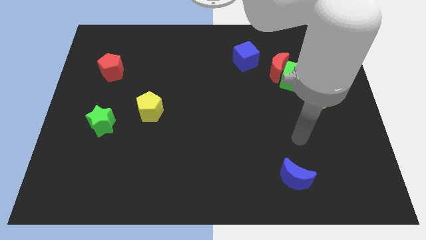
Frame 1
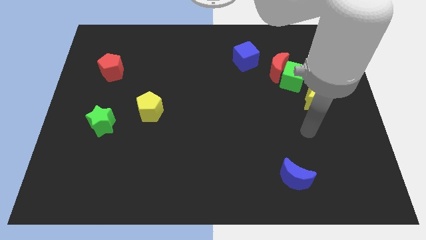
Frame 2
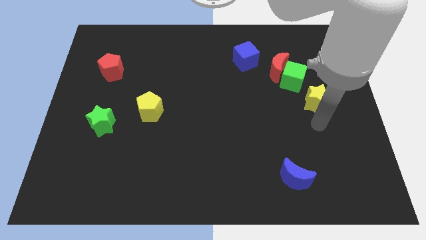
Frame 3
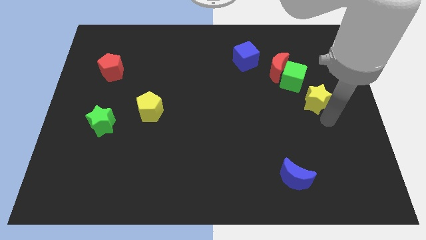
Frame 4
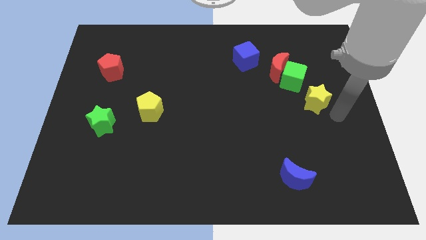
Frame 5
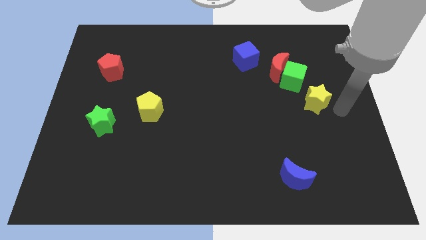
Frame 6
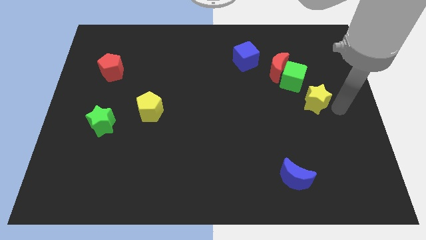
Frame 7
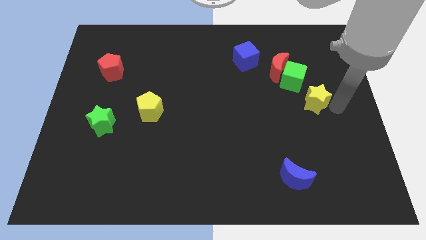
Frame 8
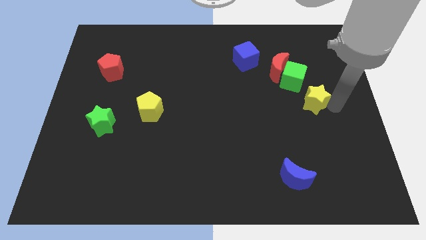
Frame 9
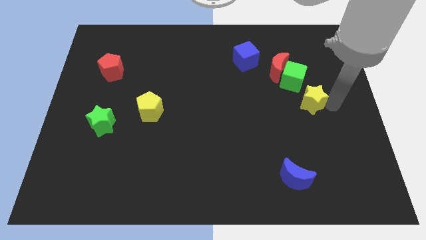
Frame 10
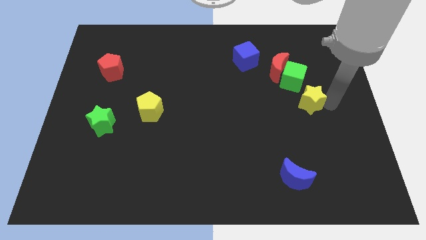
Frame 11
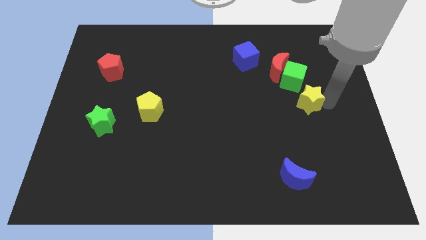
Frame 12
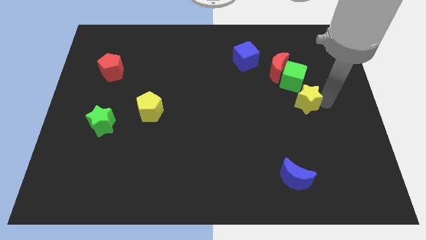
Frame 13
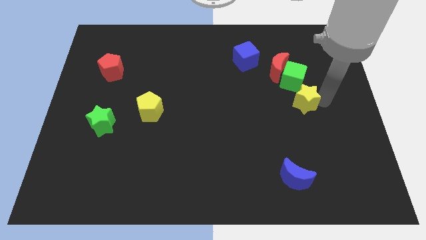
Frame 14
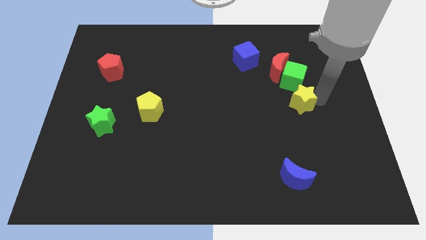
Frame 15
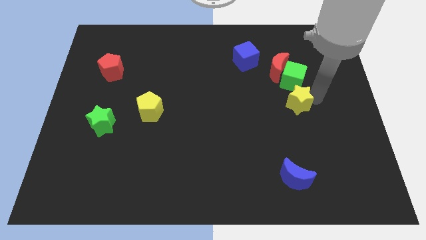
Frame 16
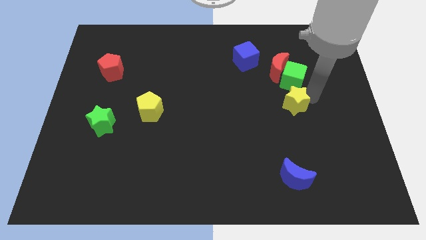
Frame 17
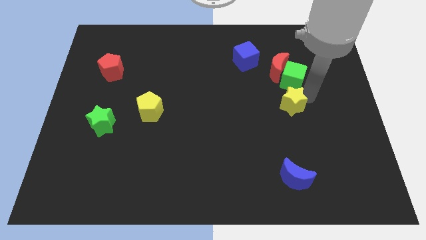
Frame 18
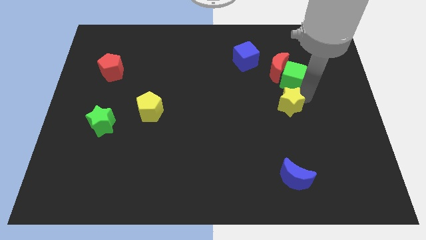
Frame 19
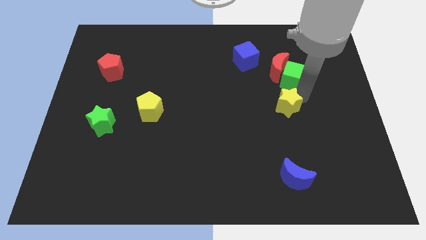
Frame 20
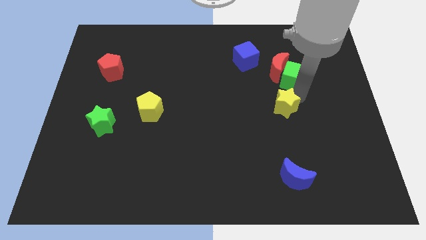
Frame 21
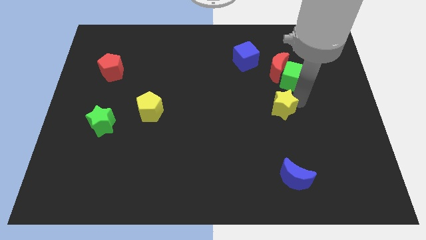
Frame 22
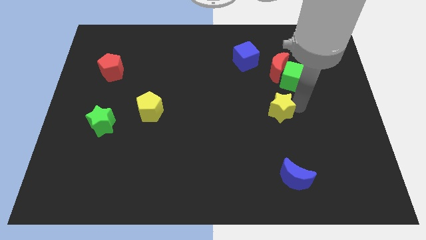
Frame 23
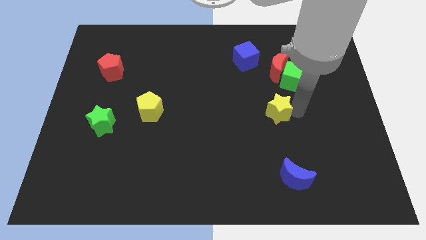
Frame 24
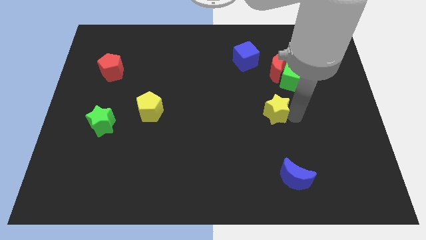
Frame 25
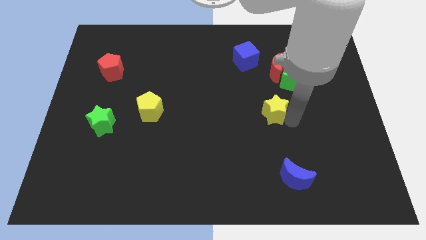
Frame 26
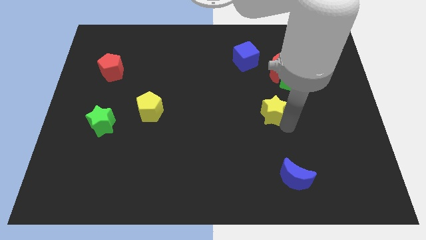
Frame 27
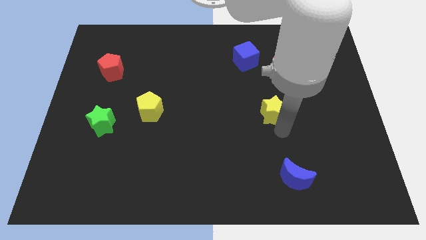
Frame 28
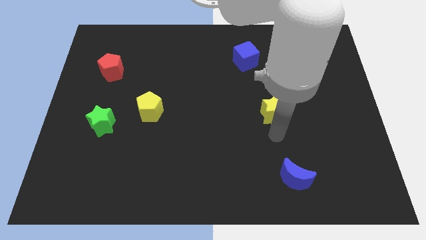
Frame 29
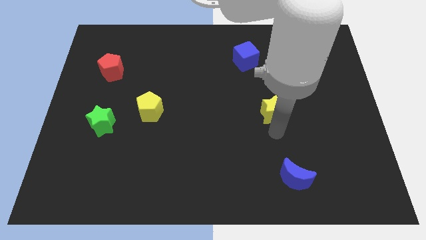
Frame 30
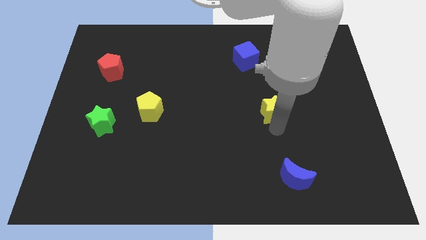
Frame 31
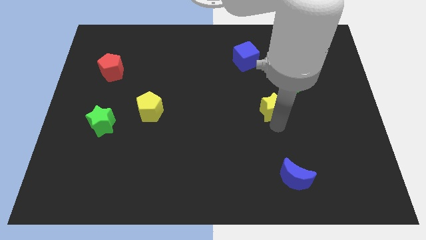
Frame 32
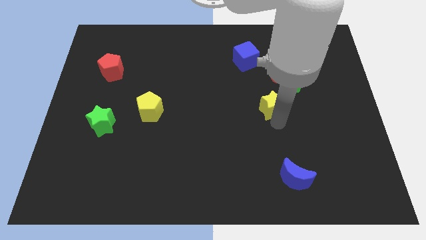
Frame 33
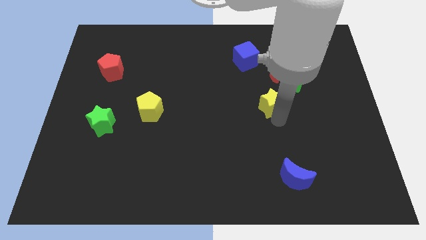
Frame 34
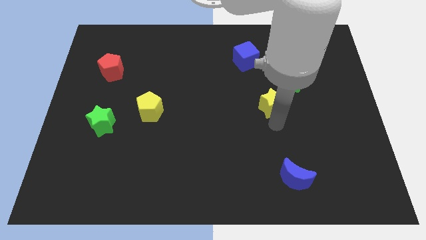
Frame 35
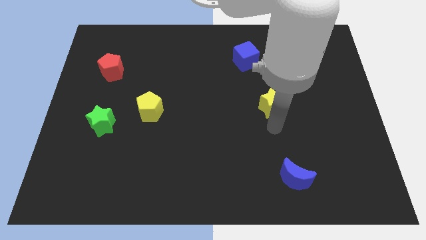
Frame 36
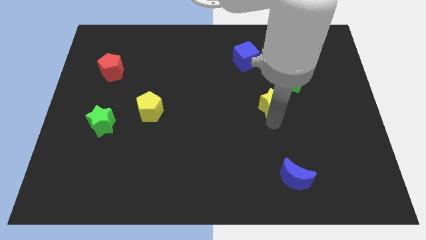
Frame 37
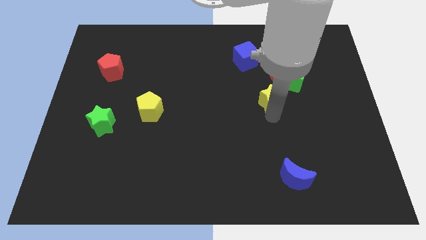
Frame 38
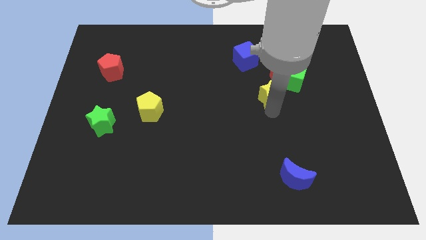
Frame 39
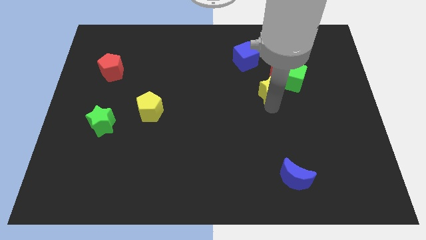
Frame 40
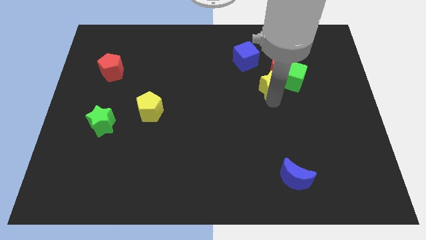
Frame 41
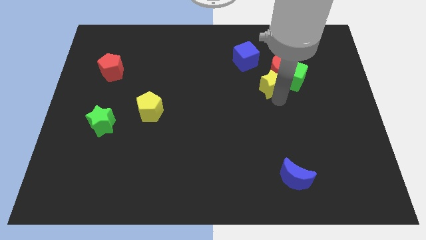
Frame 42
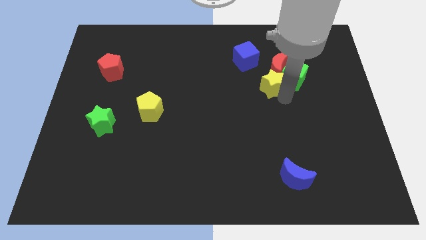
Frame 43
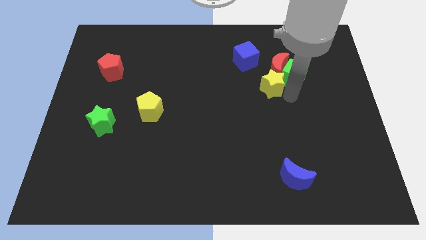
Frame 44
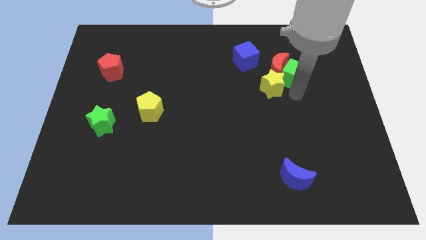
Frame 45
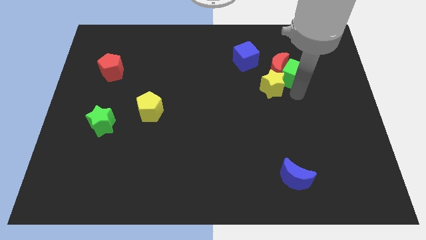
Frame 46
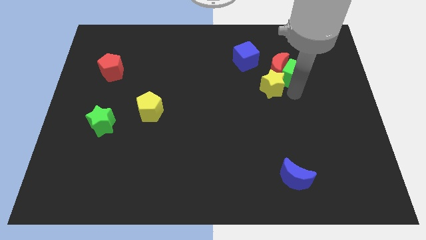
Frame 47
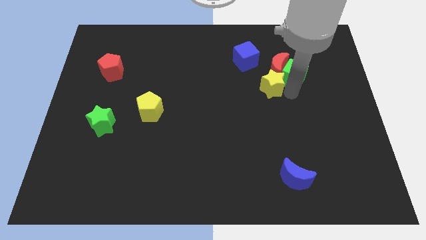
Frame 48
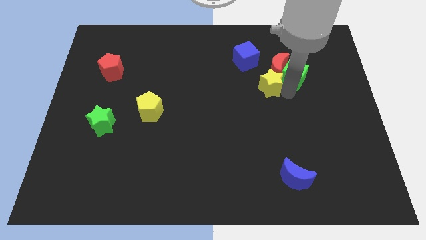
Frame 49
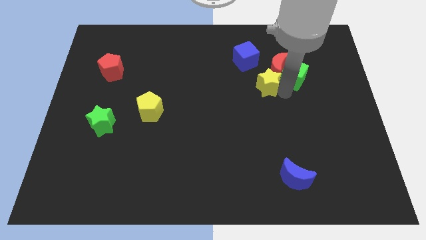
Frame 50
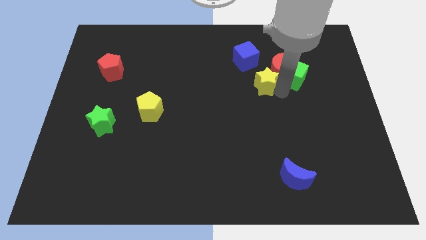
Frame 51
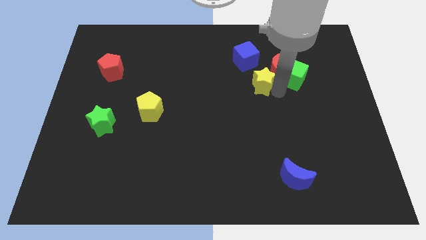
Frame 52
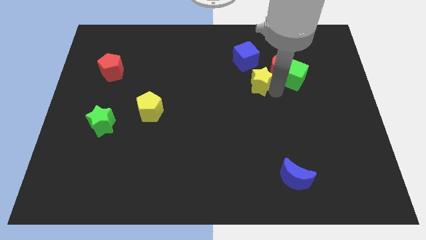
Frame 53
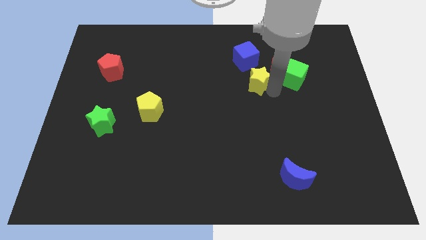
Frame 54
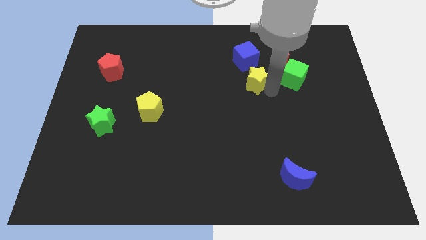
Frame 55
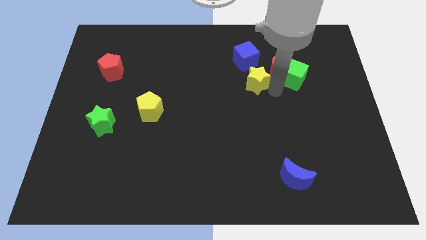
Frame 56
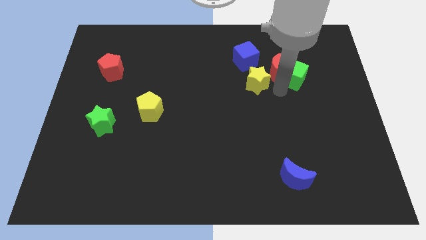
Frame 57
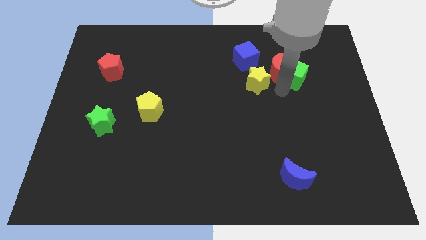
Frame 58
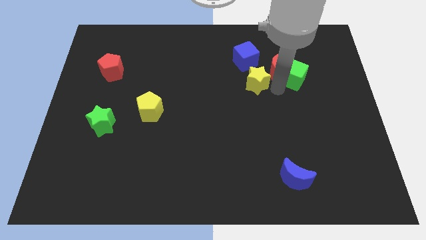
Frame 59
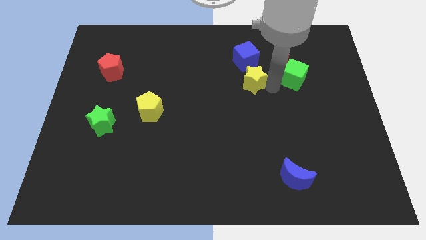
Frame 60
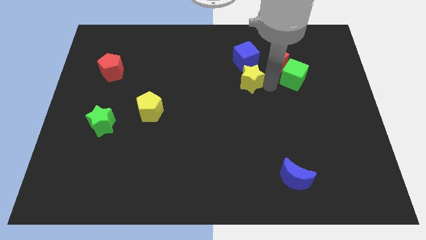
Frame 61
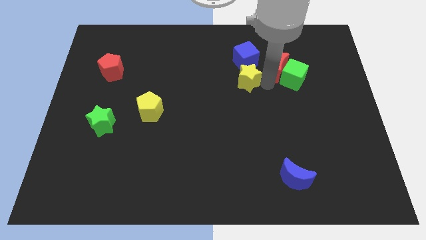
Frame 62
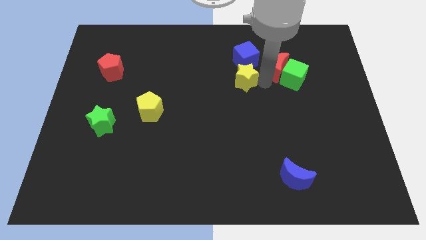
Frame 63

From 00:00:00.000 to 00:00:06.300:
put the yellow star to the bottom left of the blue cube

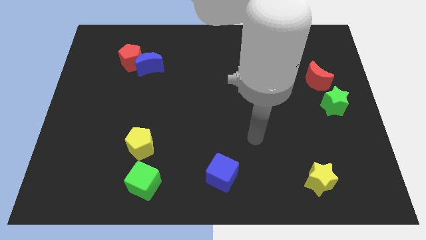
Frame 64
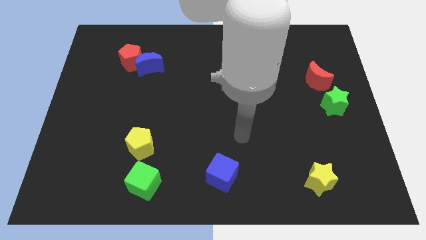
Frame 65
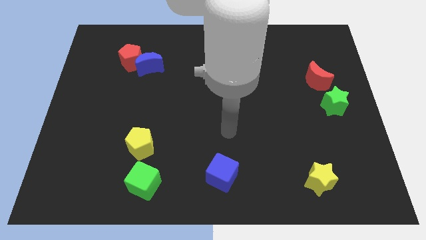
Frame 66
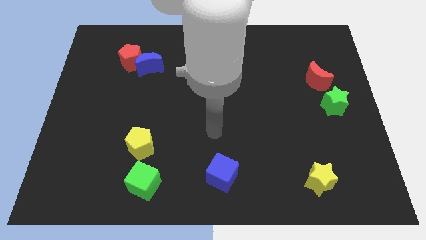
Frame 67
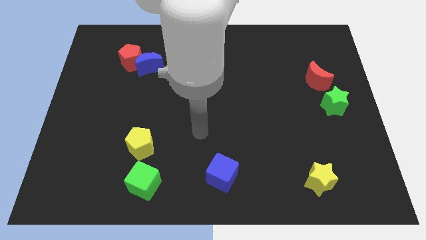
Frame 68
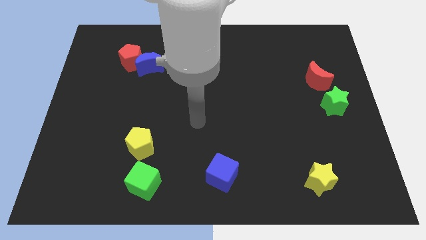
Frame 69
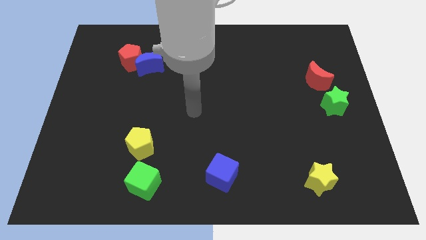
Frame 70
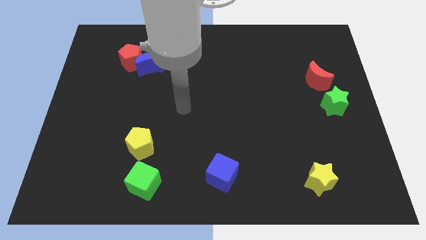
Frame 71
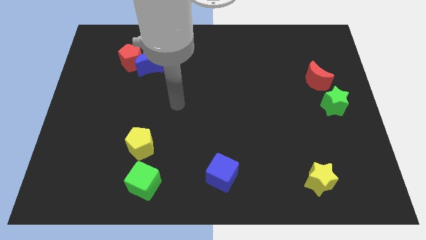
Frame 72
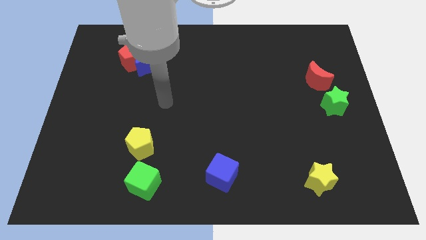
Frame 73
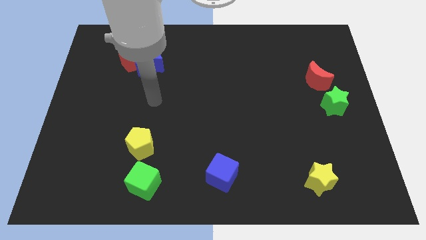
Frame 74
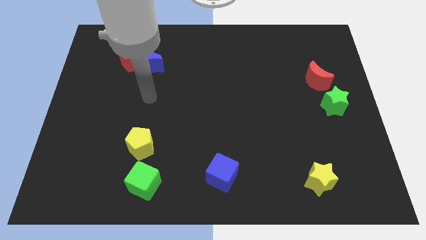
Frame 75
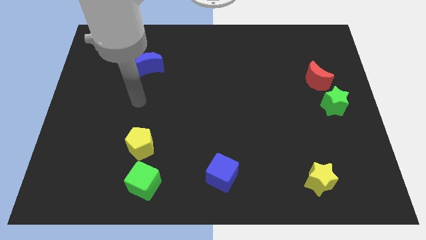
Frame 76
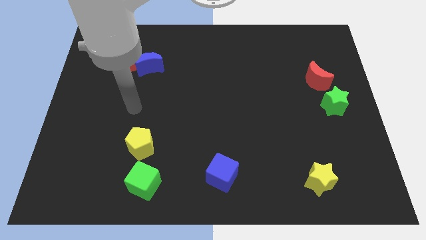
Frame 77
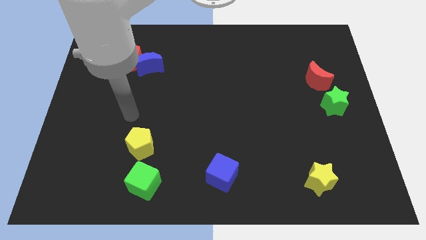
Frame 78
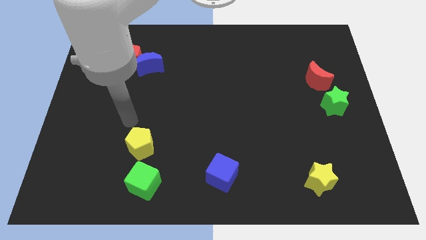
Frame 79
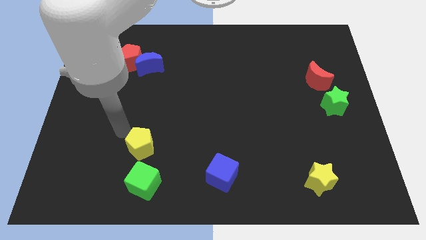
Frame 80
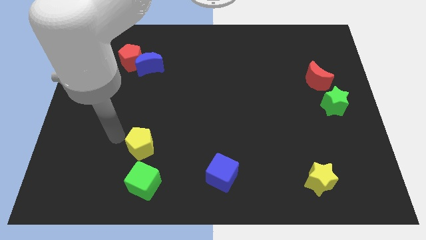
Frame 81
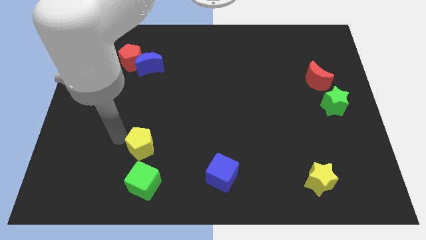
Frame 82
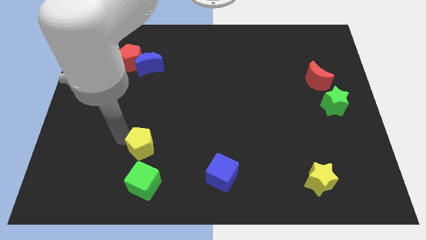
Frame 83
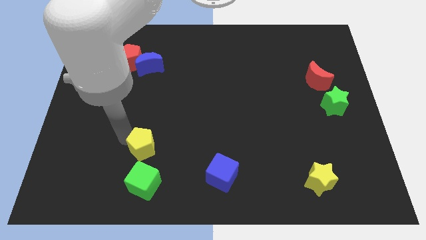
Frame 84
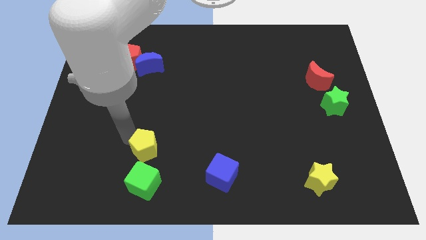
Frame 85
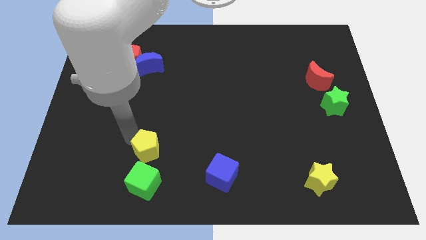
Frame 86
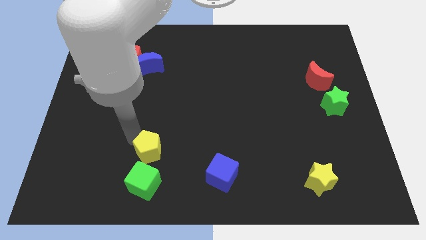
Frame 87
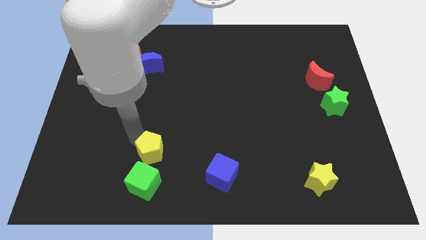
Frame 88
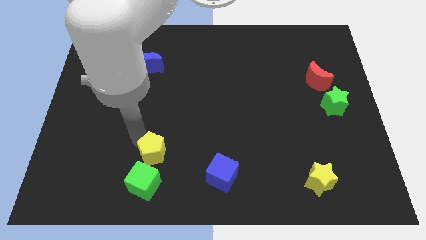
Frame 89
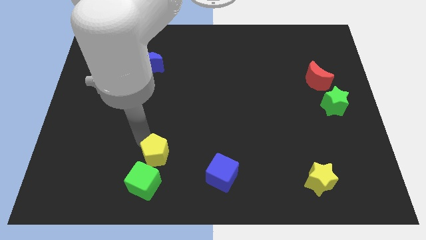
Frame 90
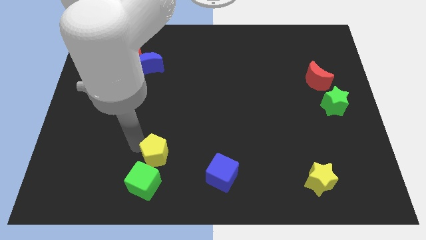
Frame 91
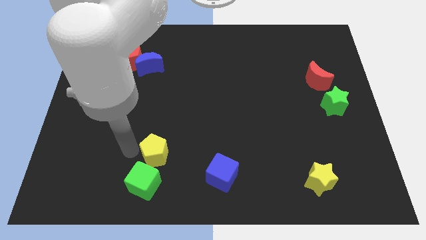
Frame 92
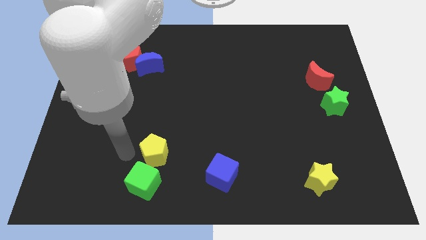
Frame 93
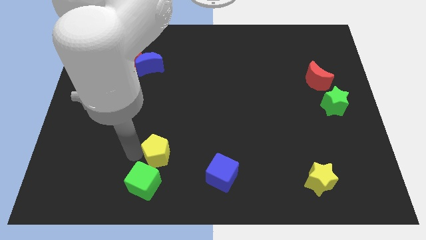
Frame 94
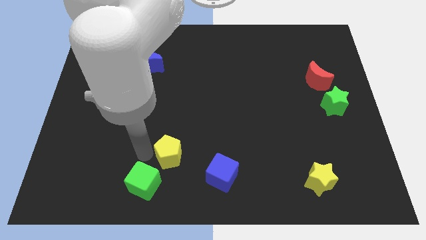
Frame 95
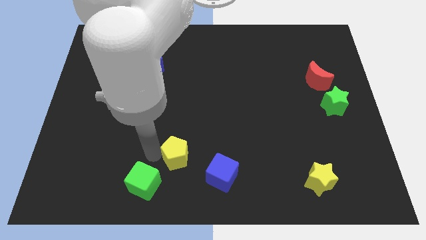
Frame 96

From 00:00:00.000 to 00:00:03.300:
slide the yellow pentagon diagonally up and to the left of the blue cube
